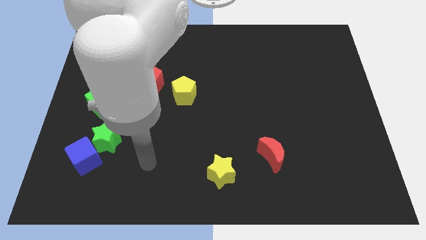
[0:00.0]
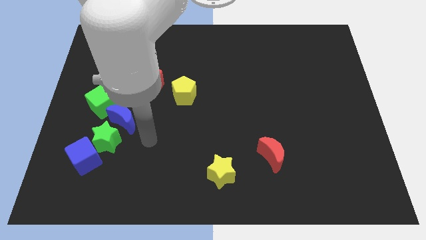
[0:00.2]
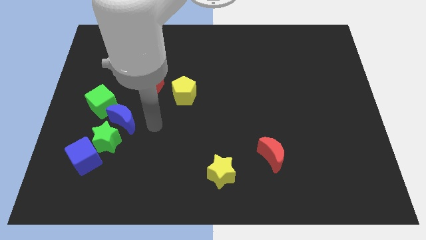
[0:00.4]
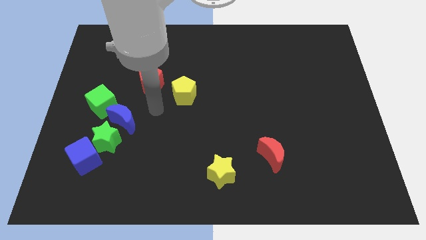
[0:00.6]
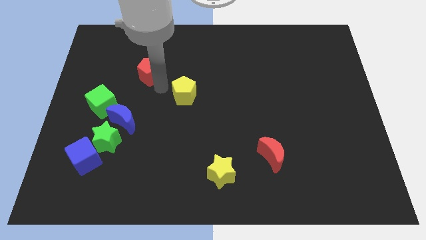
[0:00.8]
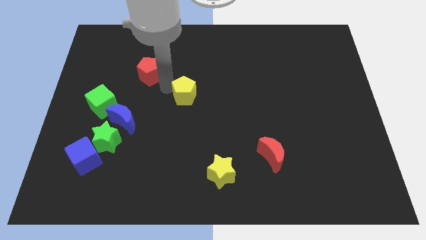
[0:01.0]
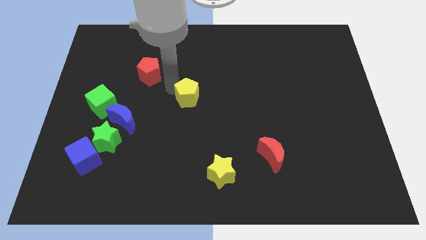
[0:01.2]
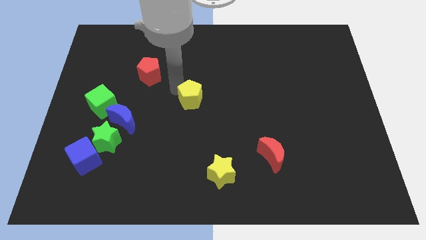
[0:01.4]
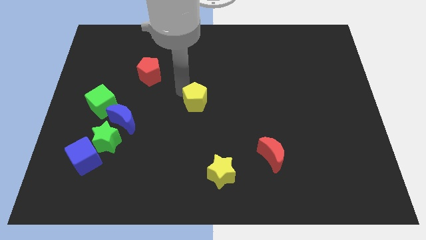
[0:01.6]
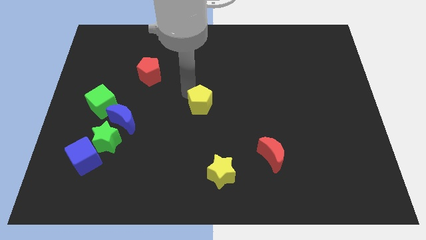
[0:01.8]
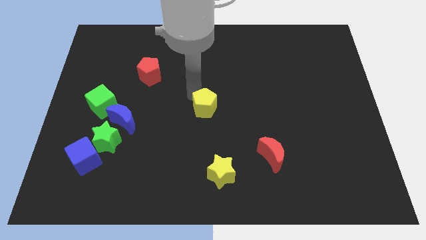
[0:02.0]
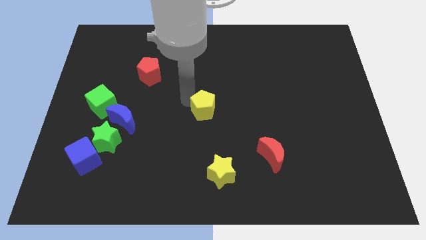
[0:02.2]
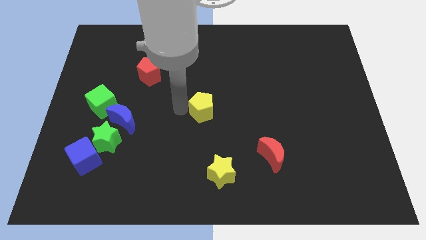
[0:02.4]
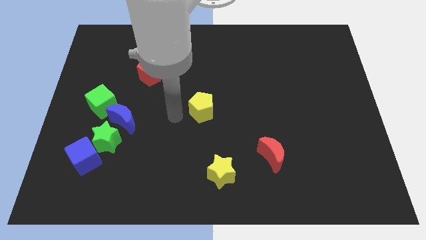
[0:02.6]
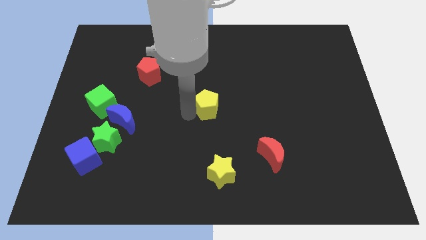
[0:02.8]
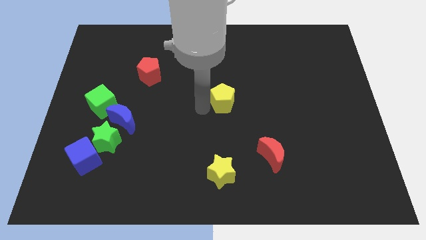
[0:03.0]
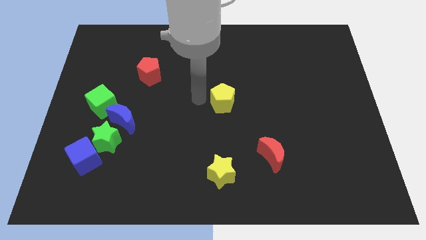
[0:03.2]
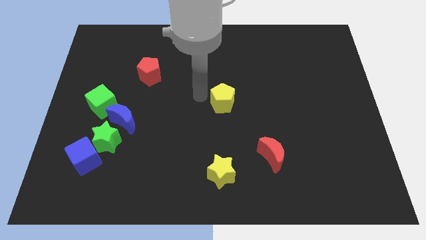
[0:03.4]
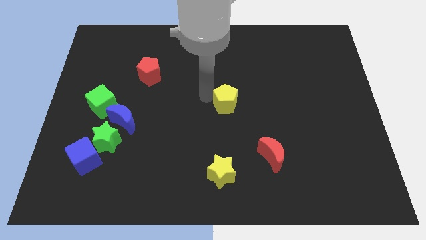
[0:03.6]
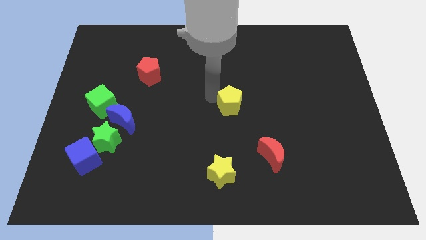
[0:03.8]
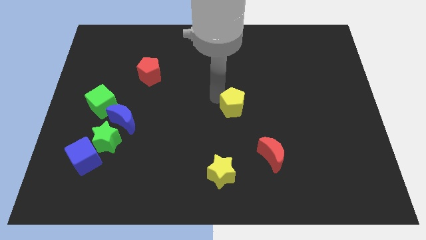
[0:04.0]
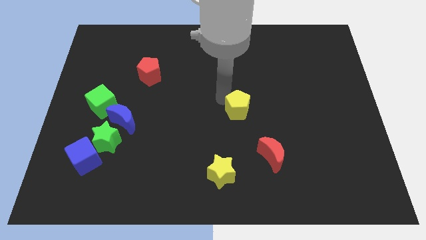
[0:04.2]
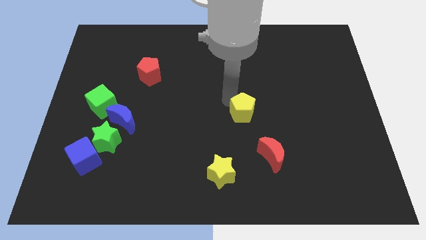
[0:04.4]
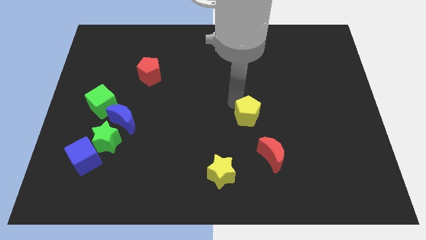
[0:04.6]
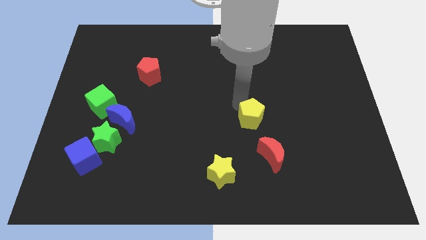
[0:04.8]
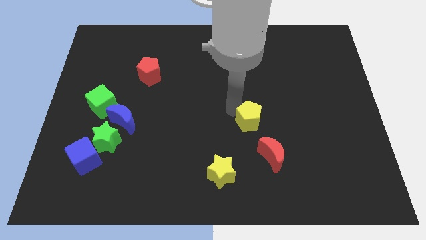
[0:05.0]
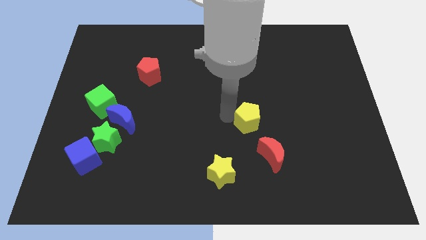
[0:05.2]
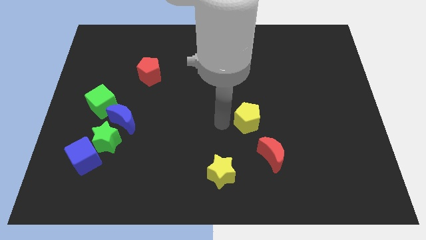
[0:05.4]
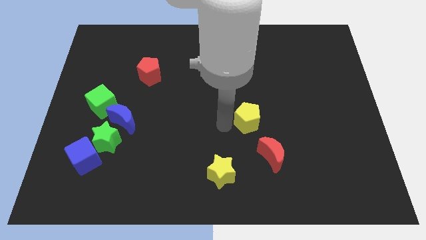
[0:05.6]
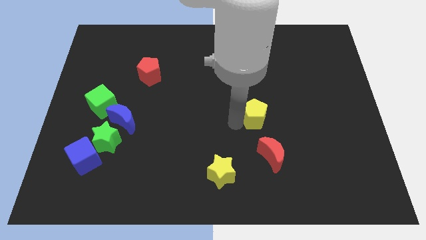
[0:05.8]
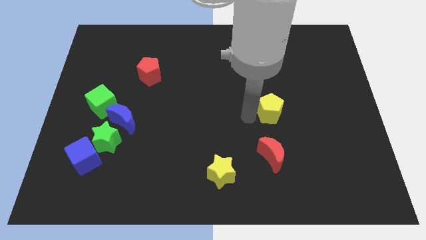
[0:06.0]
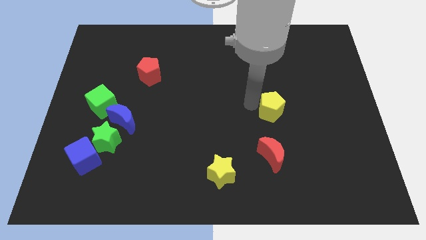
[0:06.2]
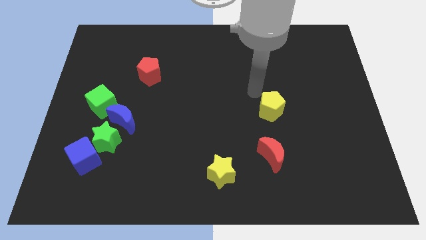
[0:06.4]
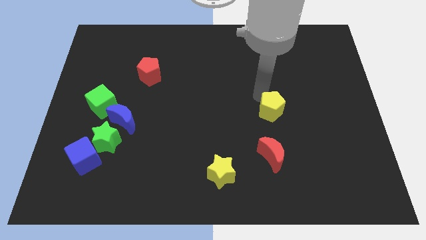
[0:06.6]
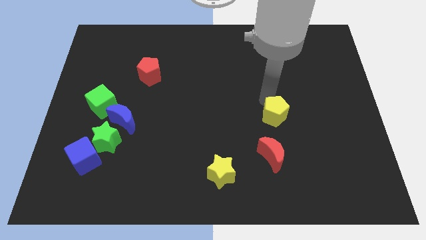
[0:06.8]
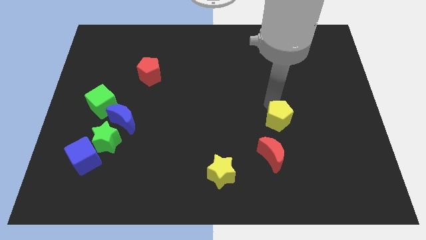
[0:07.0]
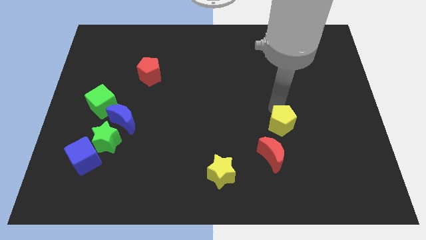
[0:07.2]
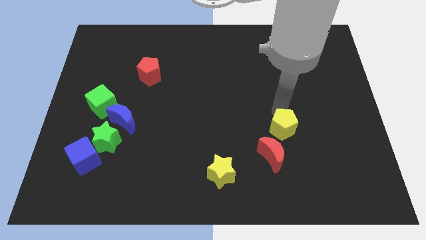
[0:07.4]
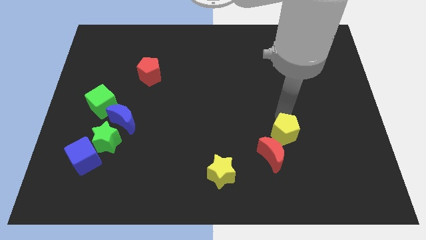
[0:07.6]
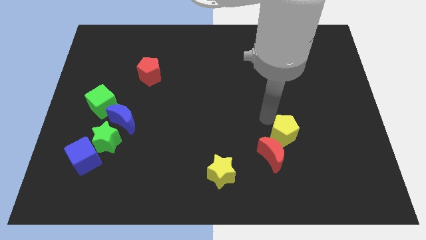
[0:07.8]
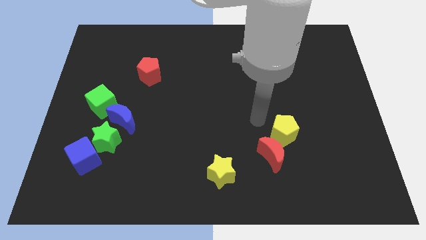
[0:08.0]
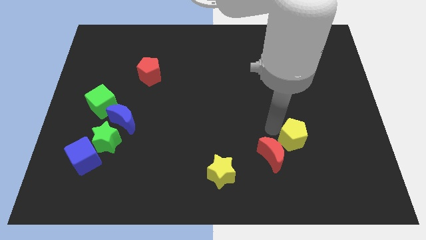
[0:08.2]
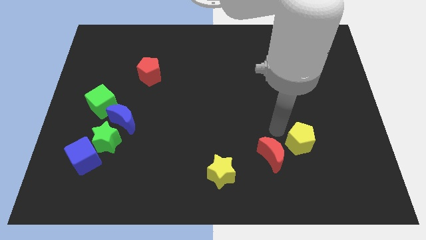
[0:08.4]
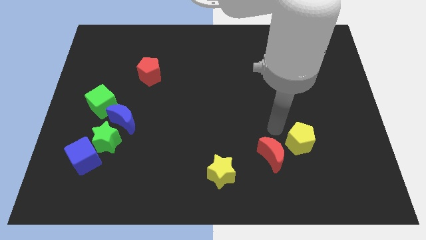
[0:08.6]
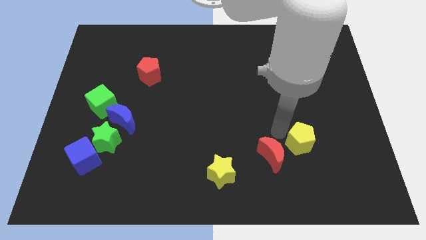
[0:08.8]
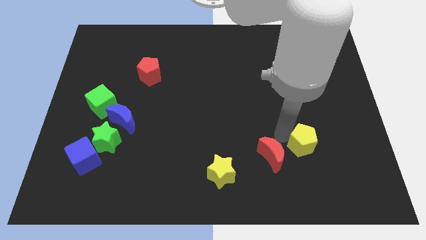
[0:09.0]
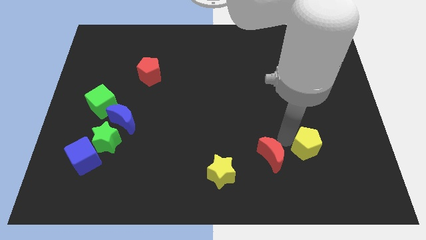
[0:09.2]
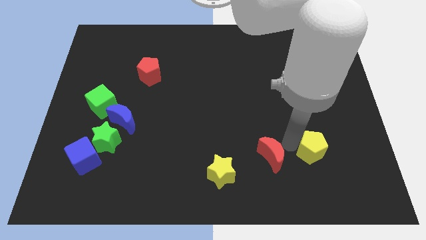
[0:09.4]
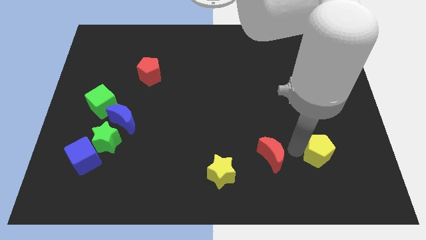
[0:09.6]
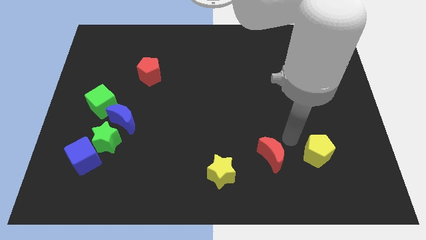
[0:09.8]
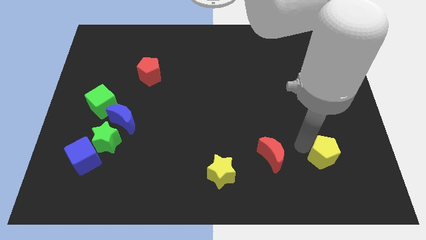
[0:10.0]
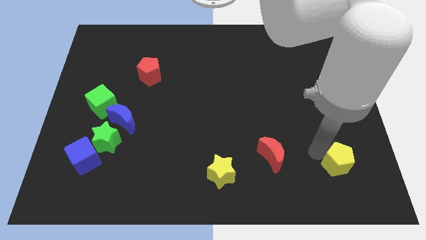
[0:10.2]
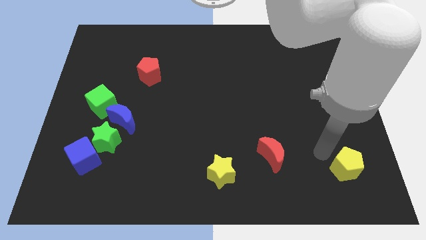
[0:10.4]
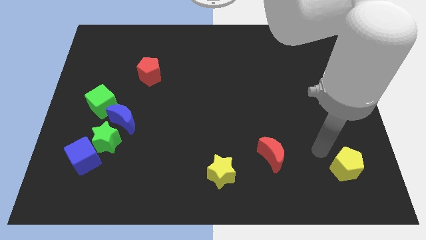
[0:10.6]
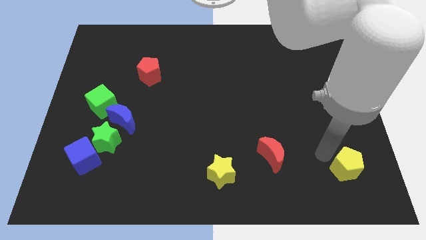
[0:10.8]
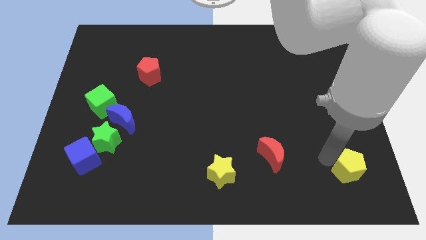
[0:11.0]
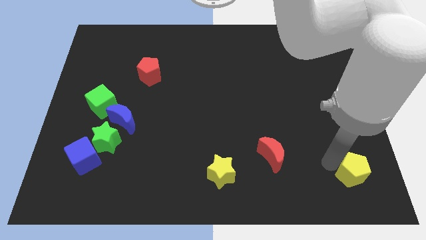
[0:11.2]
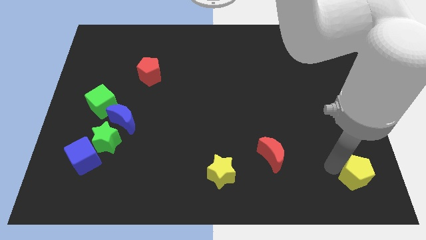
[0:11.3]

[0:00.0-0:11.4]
slide the yellow pentagon to the lower right corner
